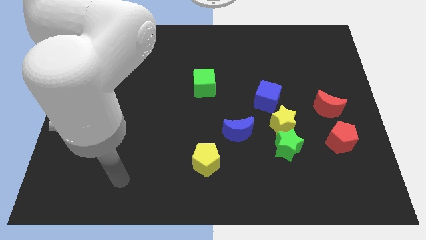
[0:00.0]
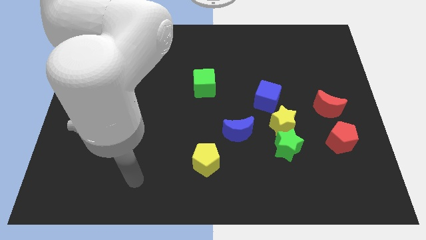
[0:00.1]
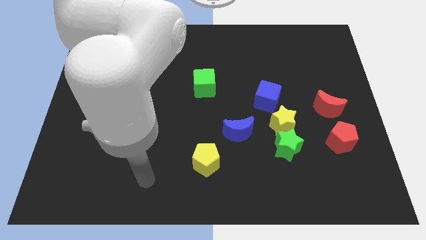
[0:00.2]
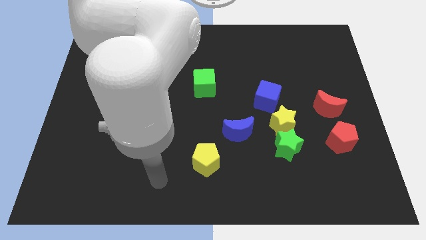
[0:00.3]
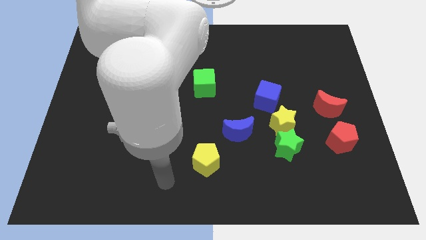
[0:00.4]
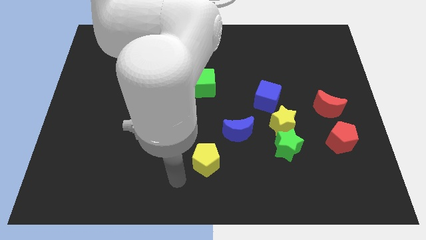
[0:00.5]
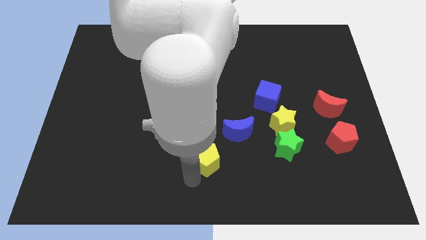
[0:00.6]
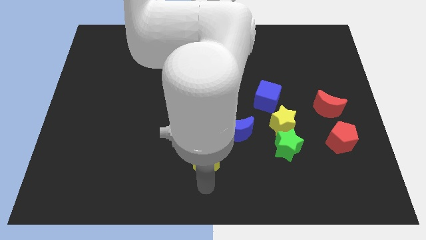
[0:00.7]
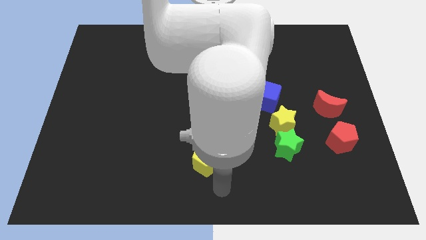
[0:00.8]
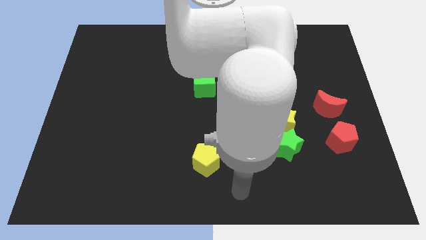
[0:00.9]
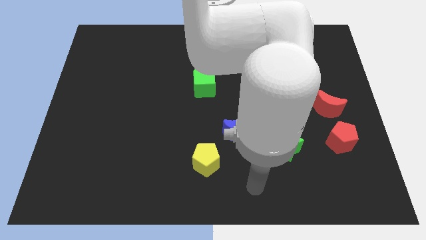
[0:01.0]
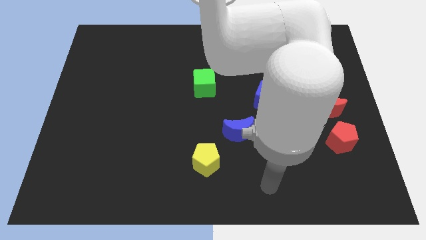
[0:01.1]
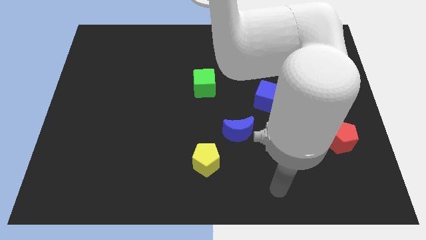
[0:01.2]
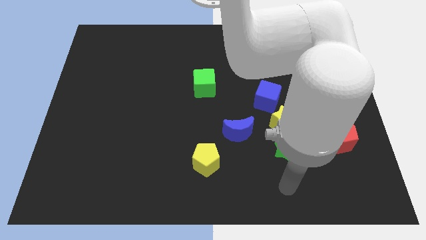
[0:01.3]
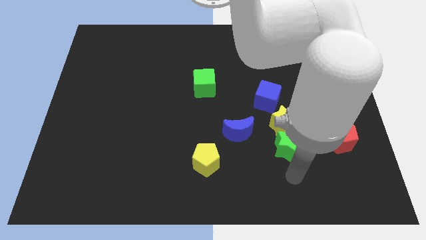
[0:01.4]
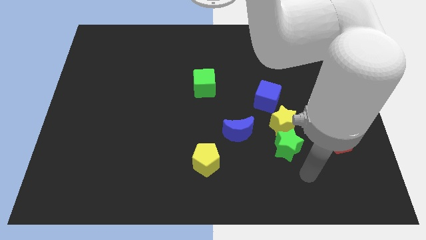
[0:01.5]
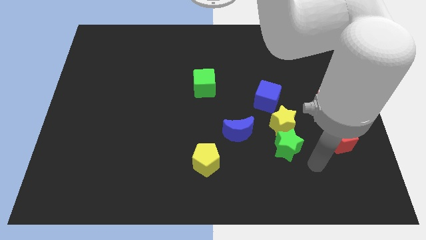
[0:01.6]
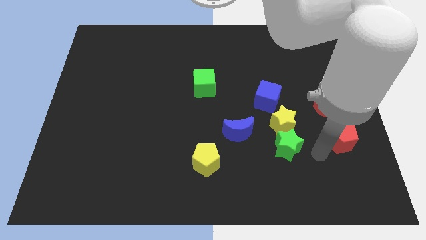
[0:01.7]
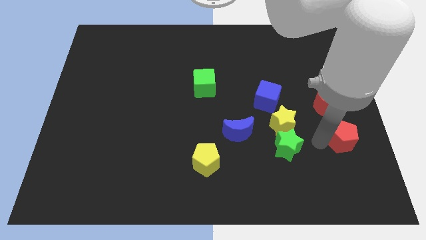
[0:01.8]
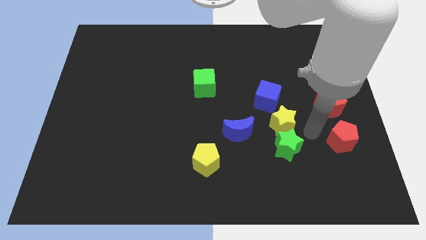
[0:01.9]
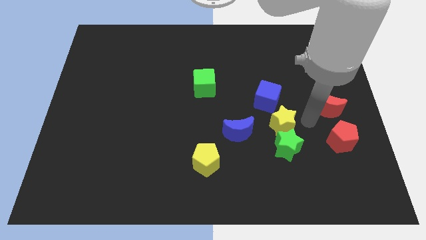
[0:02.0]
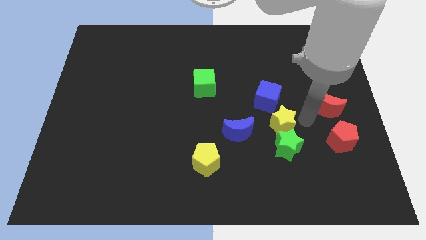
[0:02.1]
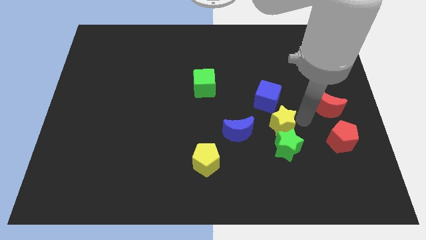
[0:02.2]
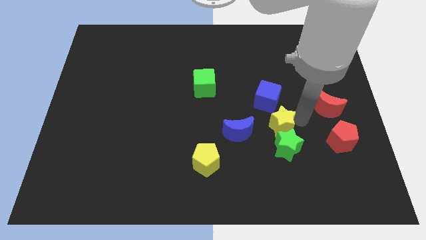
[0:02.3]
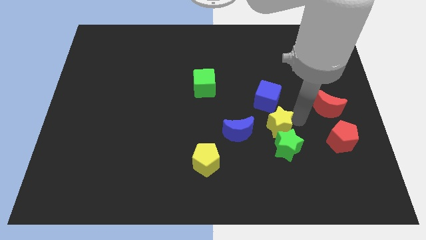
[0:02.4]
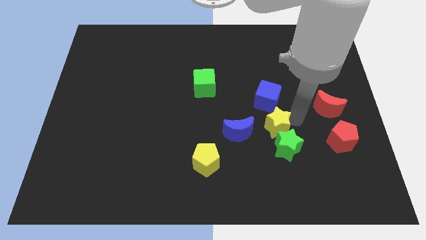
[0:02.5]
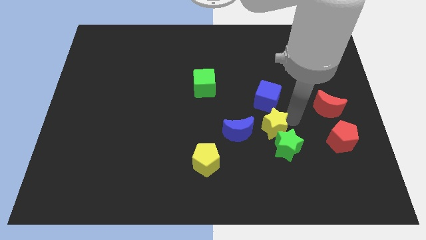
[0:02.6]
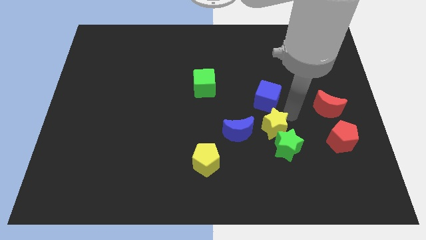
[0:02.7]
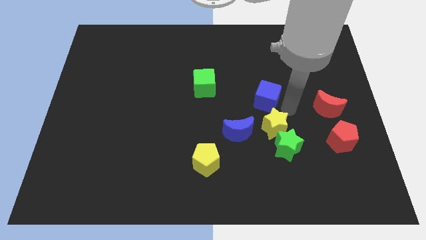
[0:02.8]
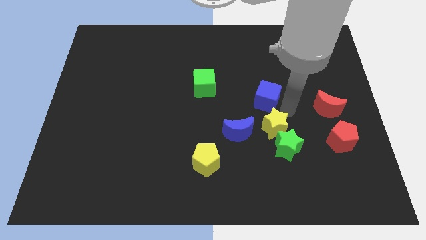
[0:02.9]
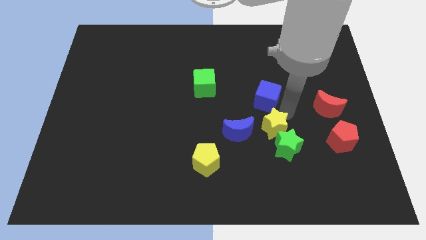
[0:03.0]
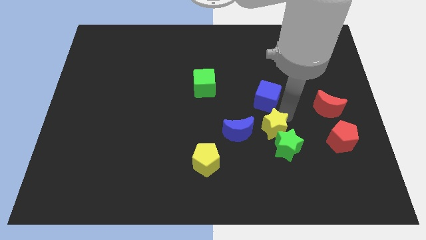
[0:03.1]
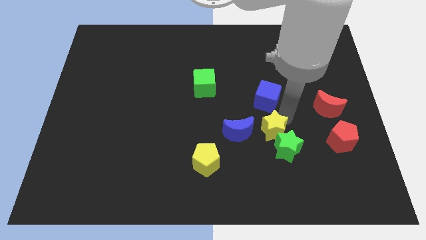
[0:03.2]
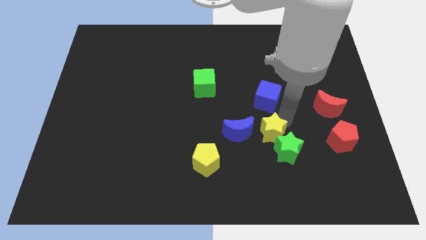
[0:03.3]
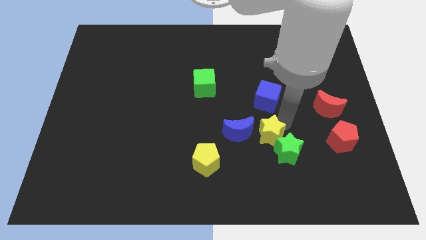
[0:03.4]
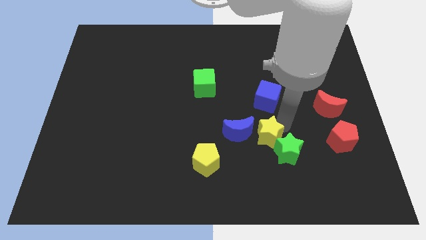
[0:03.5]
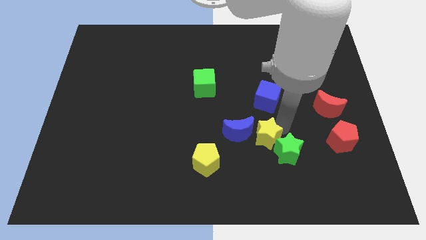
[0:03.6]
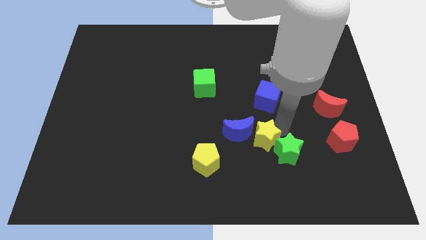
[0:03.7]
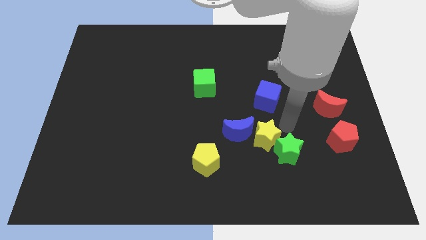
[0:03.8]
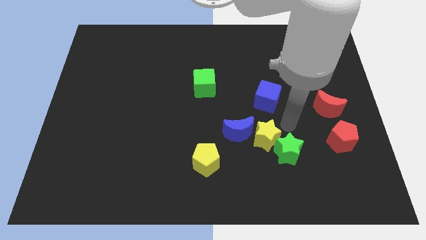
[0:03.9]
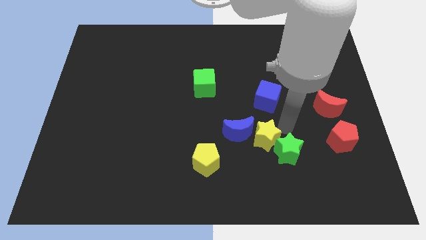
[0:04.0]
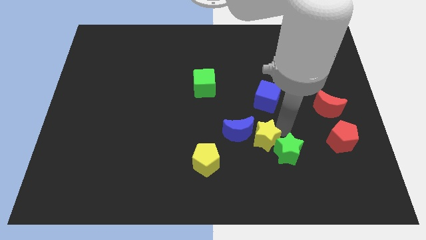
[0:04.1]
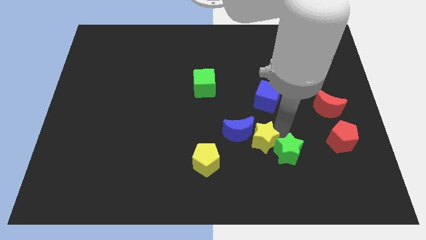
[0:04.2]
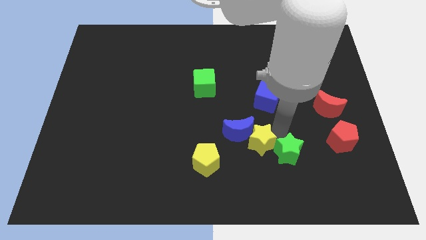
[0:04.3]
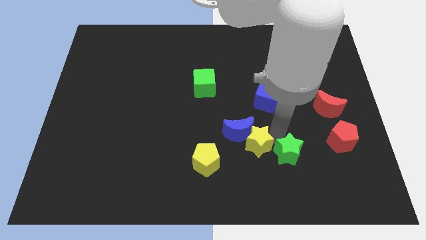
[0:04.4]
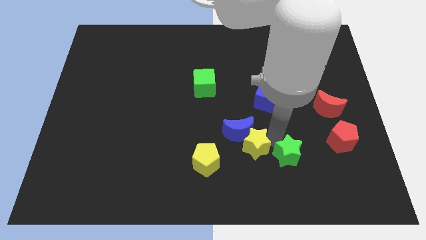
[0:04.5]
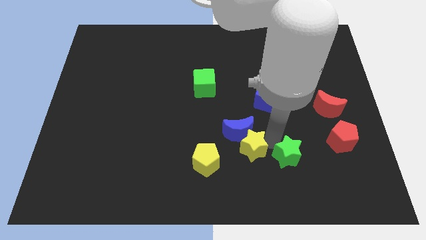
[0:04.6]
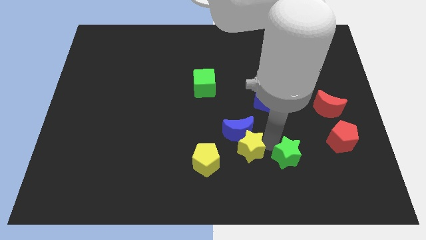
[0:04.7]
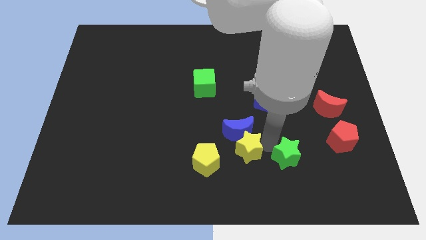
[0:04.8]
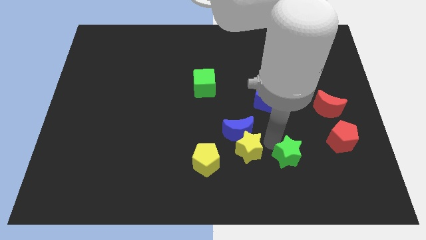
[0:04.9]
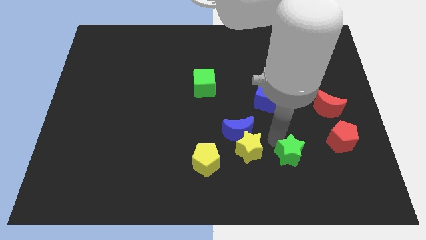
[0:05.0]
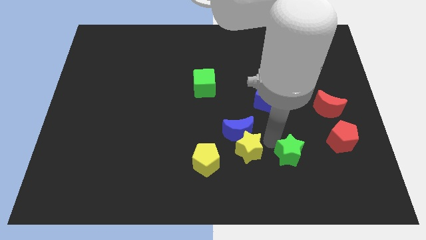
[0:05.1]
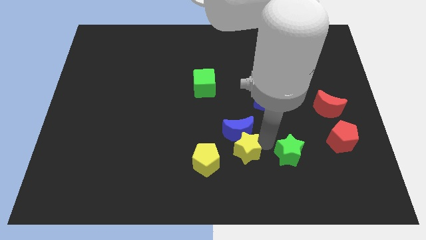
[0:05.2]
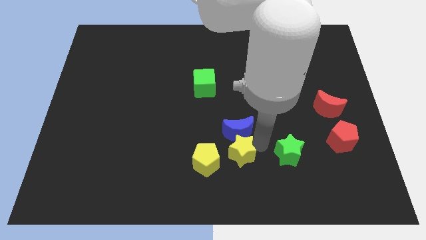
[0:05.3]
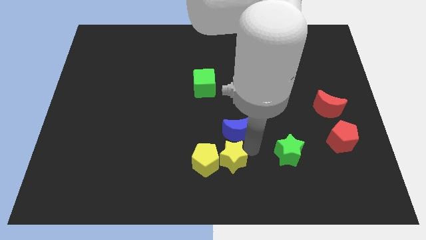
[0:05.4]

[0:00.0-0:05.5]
move the yellow star towards the yellow pentagon
